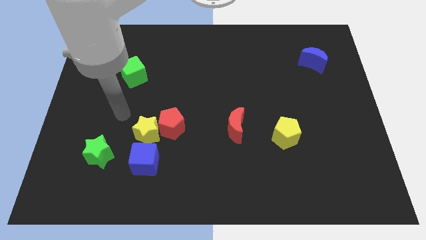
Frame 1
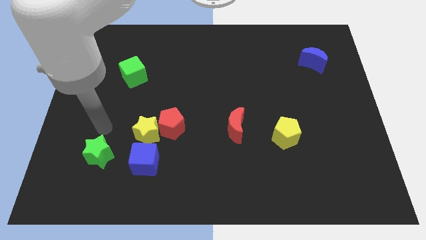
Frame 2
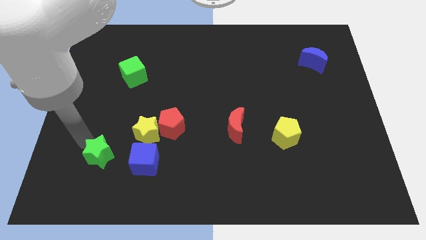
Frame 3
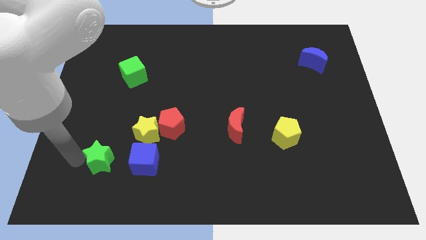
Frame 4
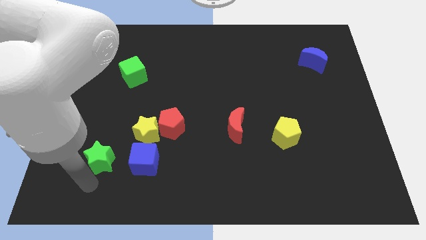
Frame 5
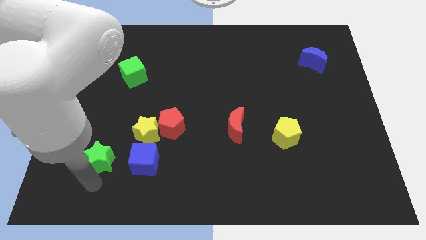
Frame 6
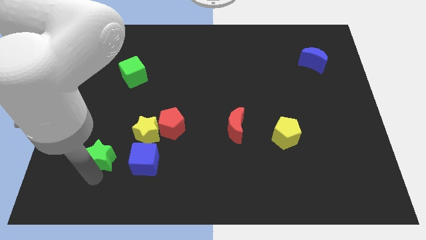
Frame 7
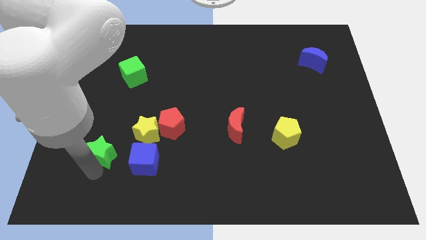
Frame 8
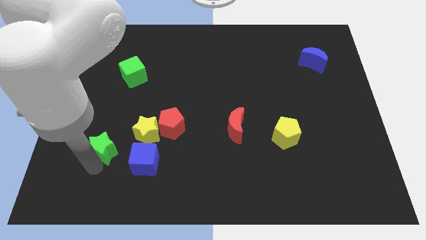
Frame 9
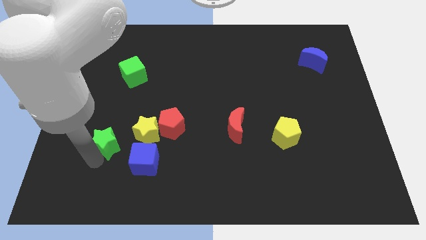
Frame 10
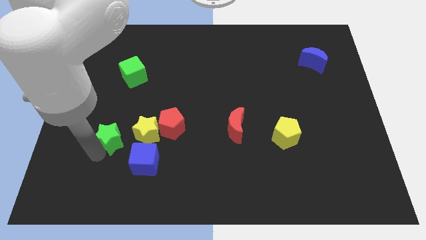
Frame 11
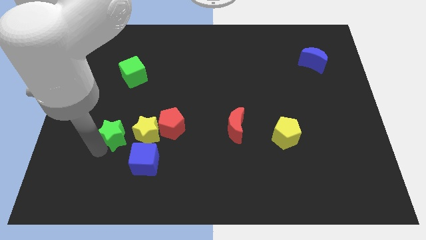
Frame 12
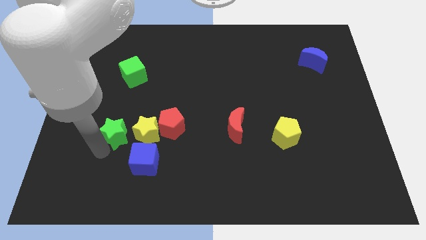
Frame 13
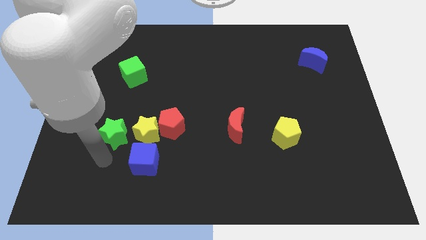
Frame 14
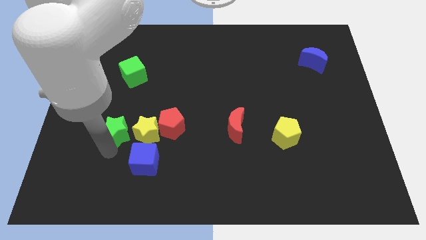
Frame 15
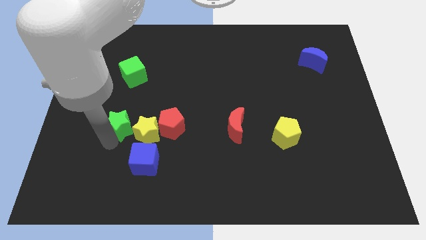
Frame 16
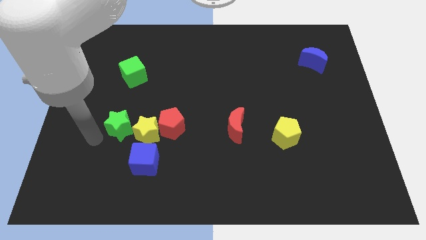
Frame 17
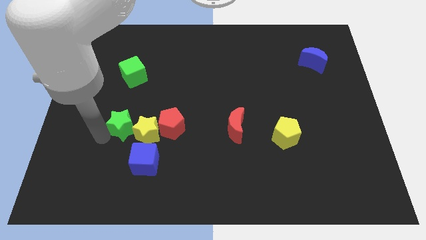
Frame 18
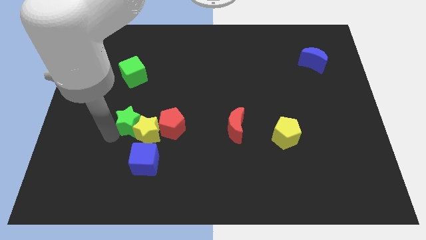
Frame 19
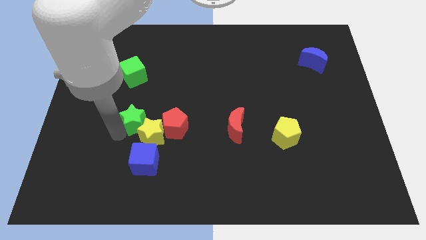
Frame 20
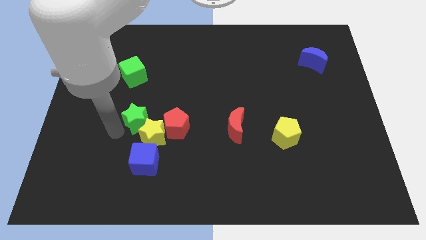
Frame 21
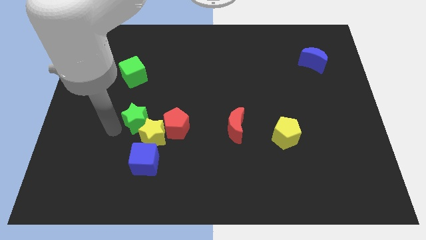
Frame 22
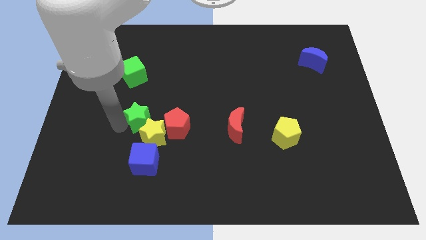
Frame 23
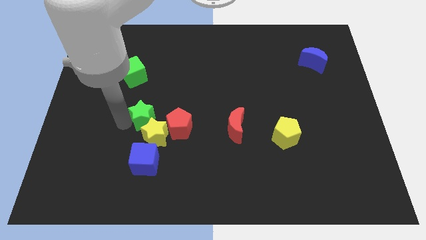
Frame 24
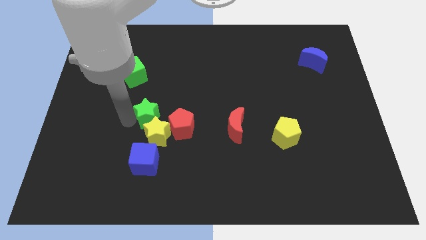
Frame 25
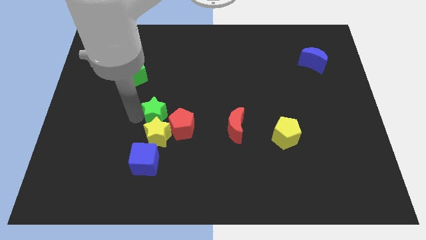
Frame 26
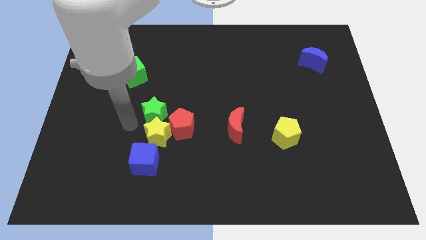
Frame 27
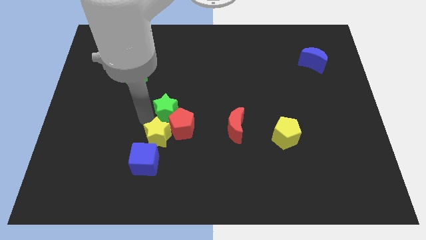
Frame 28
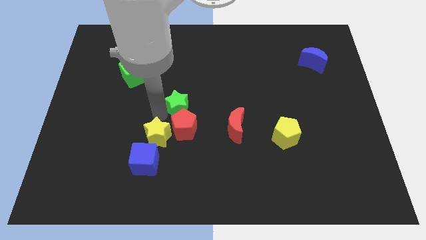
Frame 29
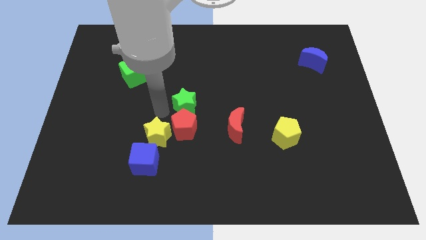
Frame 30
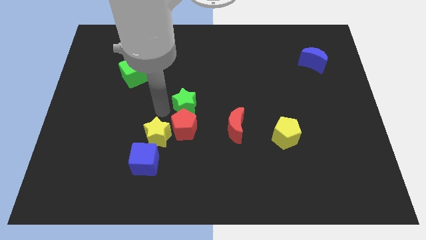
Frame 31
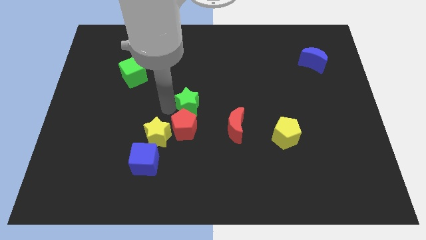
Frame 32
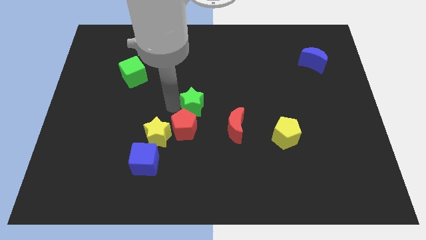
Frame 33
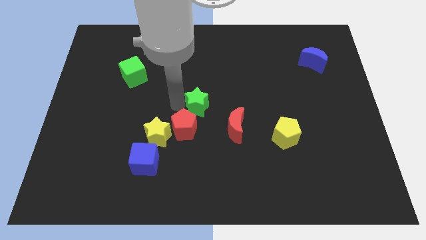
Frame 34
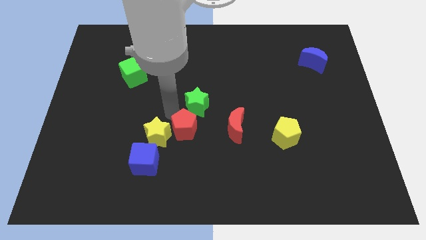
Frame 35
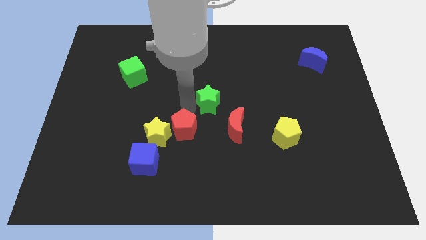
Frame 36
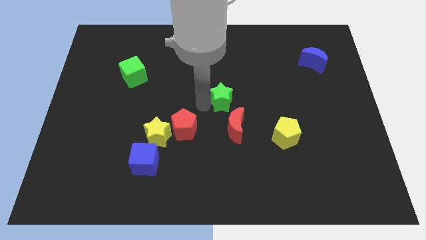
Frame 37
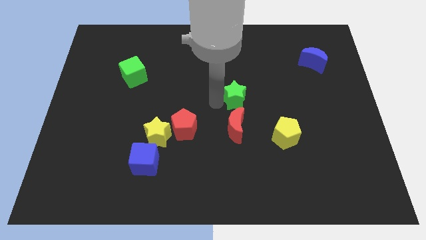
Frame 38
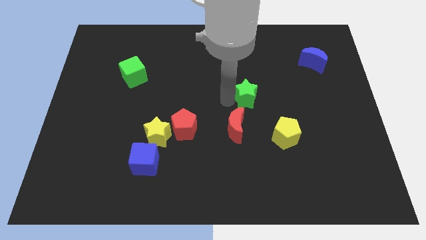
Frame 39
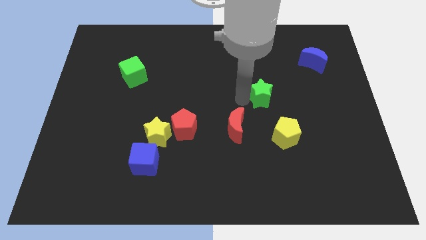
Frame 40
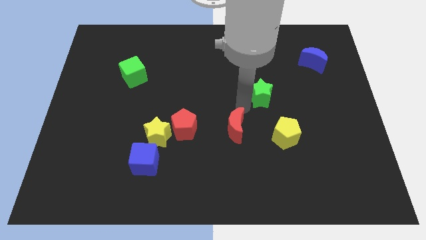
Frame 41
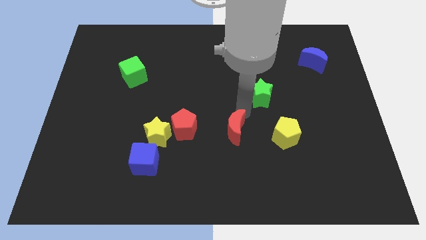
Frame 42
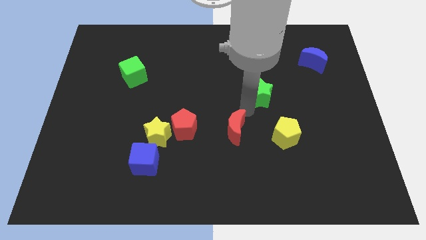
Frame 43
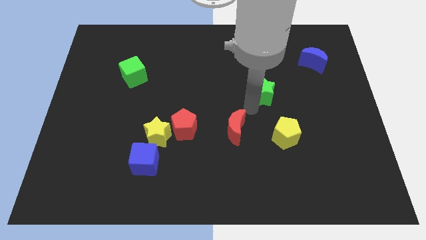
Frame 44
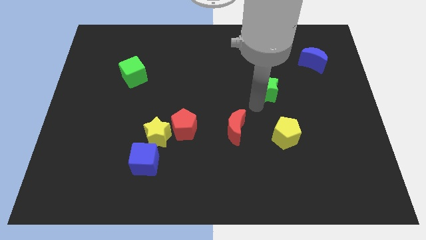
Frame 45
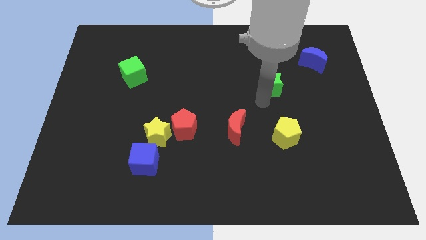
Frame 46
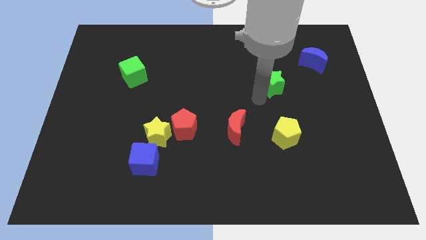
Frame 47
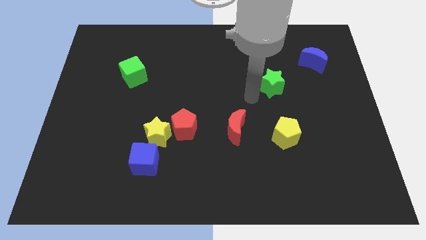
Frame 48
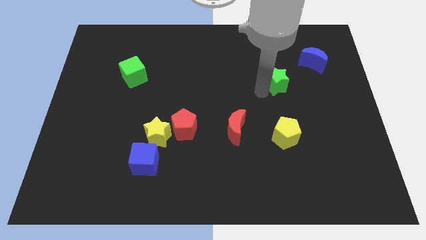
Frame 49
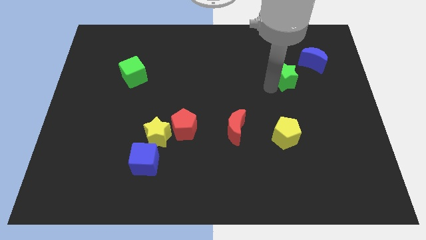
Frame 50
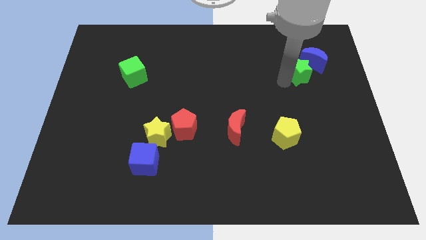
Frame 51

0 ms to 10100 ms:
push the green star close to the blue moon

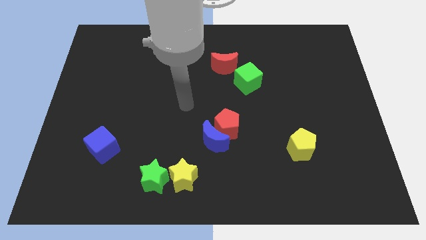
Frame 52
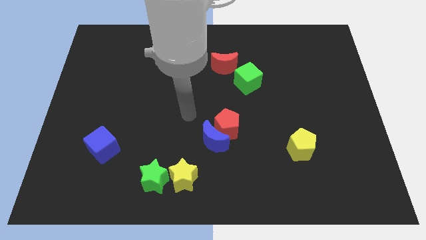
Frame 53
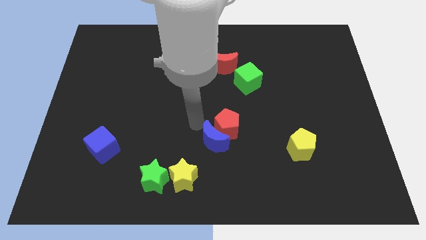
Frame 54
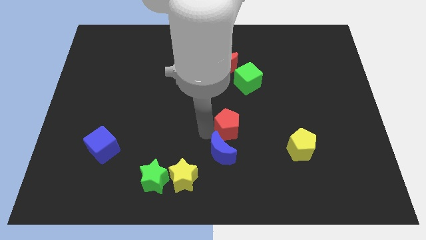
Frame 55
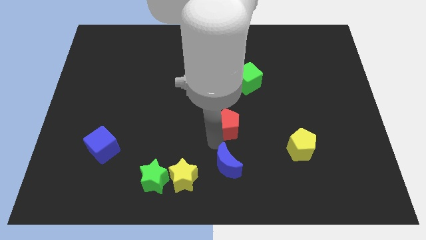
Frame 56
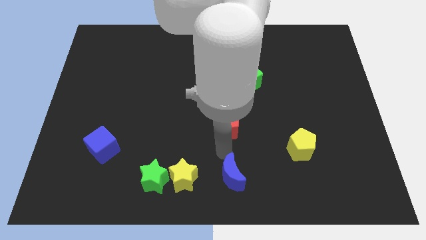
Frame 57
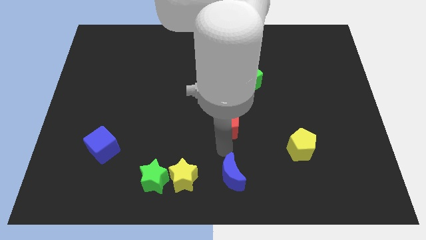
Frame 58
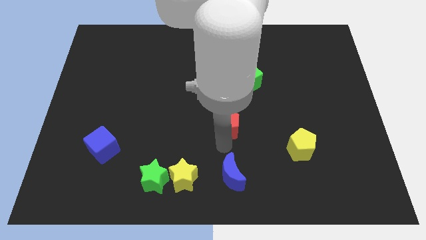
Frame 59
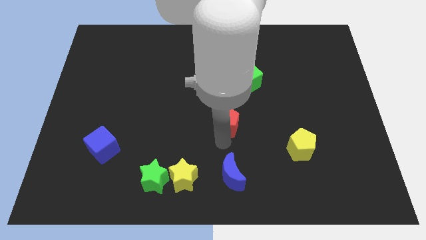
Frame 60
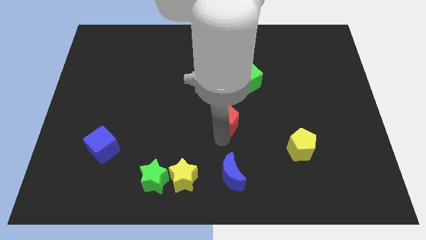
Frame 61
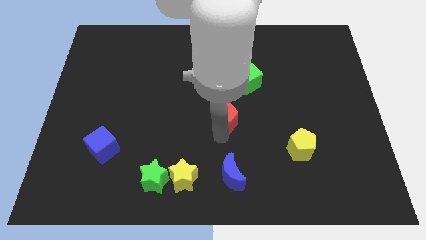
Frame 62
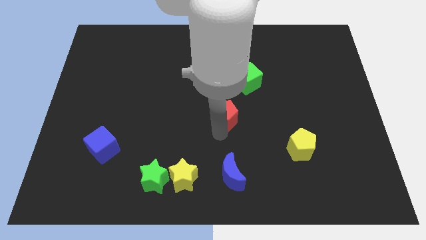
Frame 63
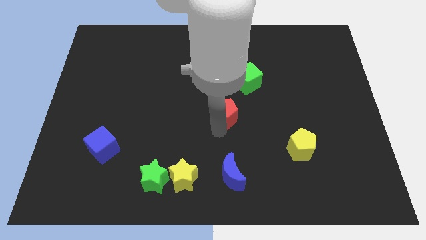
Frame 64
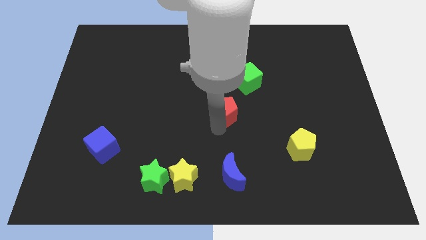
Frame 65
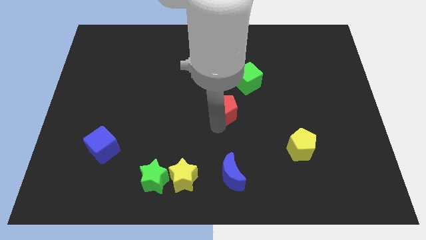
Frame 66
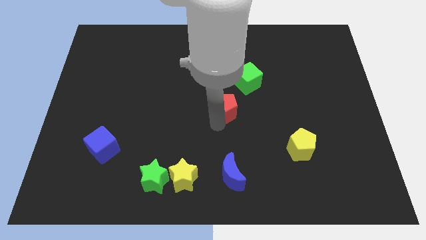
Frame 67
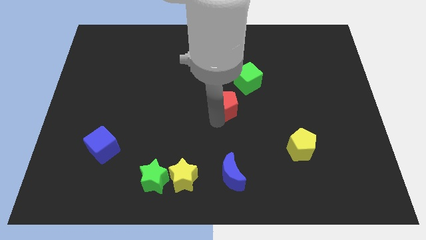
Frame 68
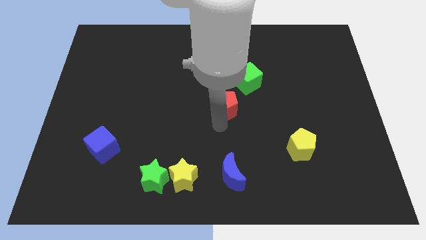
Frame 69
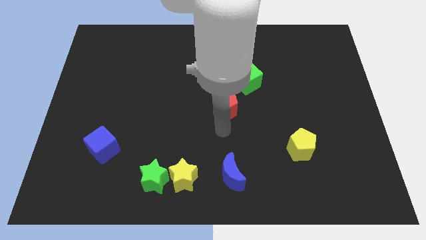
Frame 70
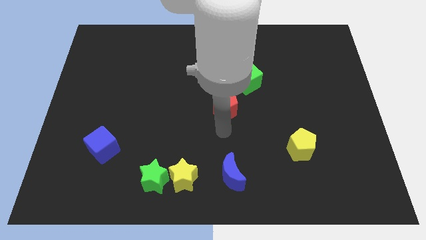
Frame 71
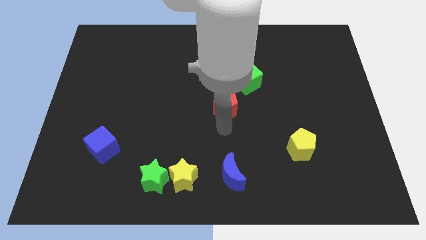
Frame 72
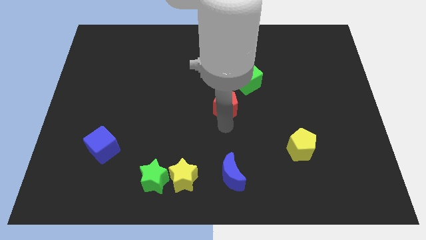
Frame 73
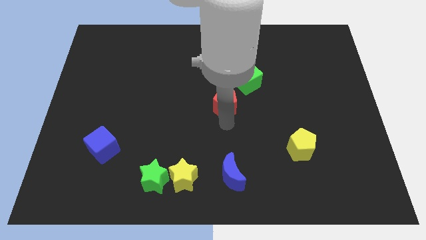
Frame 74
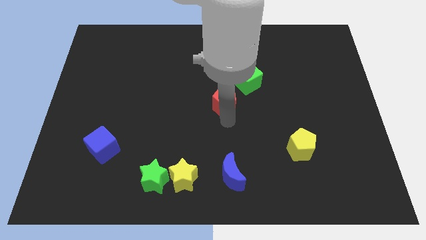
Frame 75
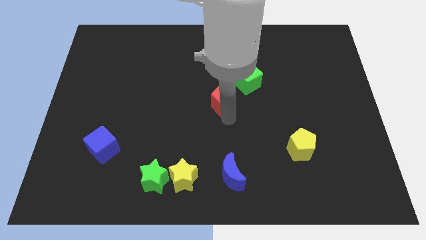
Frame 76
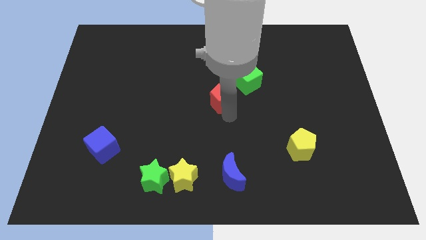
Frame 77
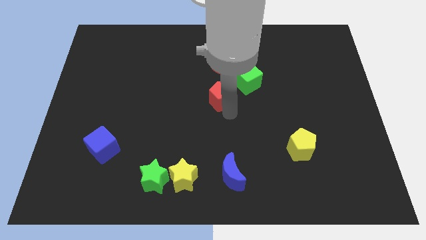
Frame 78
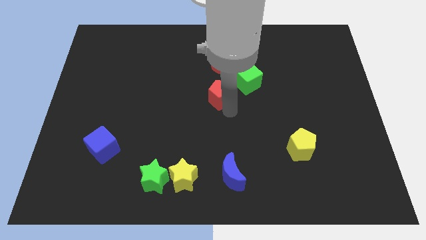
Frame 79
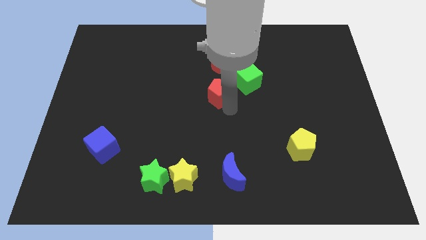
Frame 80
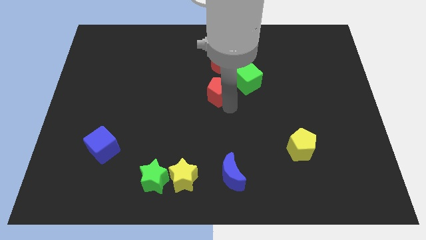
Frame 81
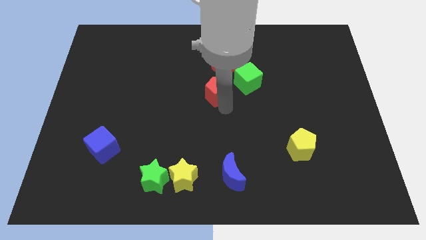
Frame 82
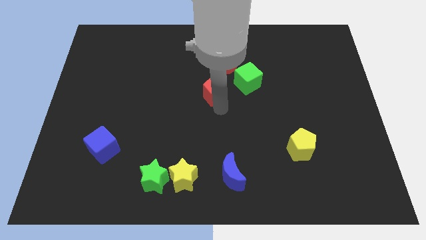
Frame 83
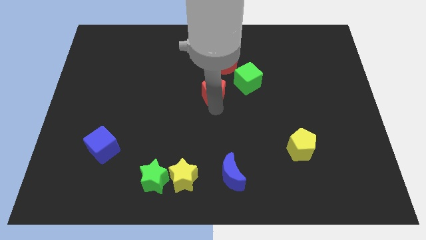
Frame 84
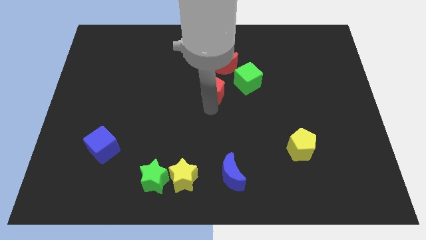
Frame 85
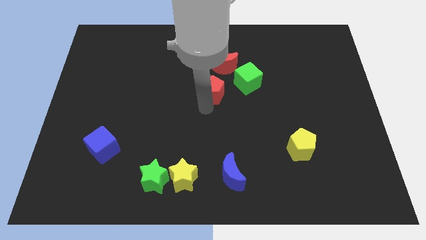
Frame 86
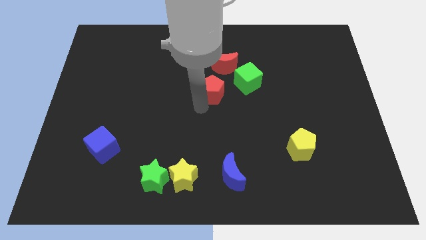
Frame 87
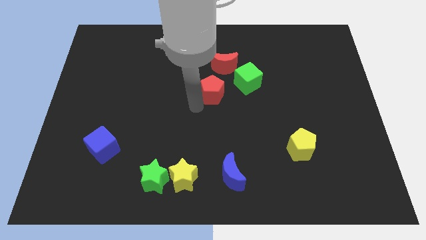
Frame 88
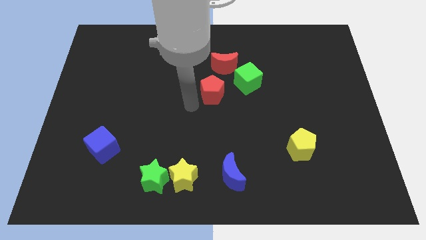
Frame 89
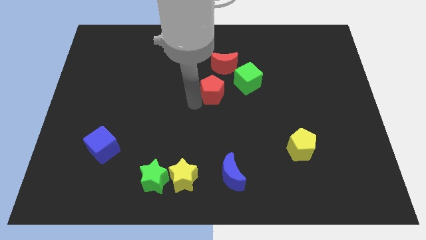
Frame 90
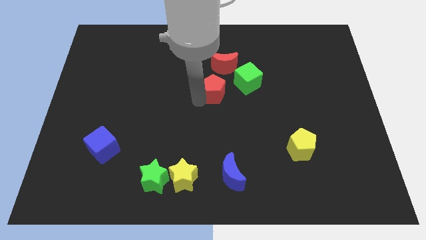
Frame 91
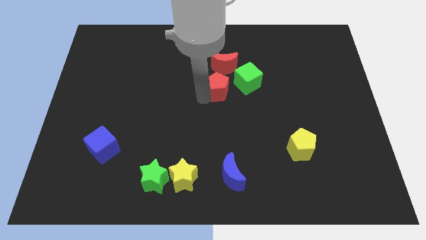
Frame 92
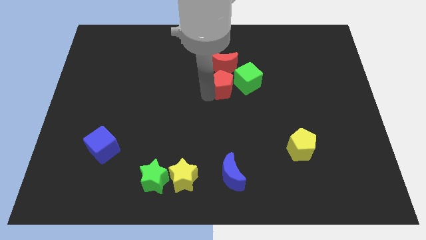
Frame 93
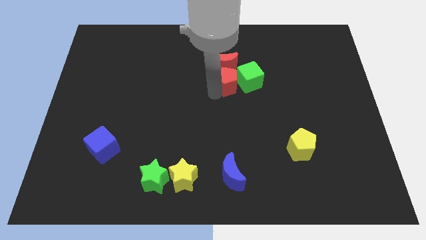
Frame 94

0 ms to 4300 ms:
put the red pentagon to the red moon
